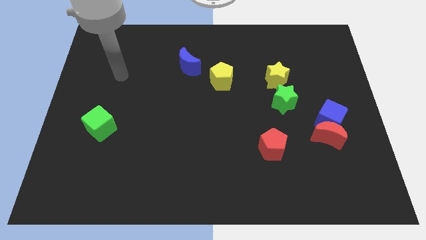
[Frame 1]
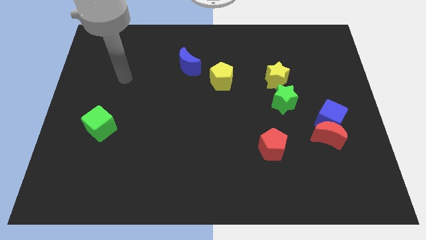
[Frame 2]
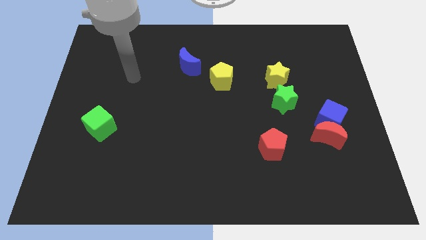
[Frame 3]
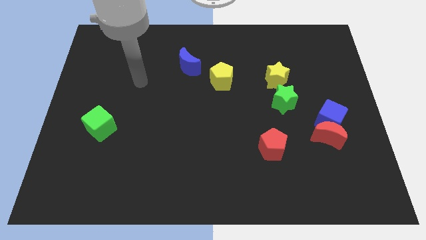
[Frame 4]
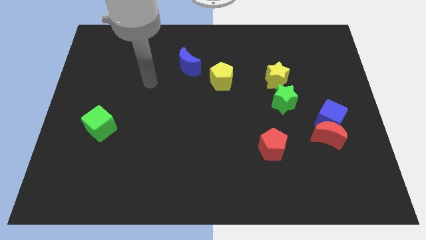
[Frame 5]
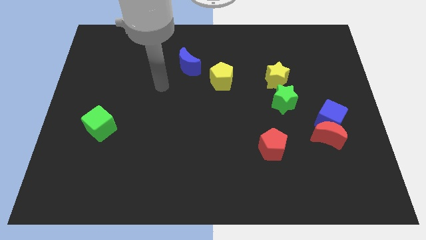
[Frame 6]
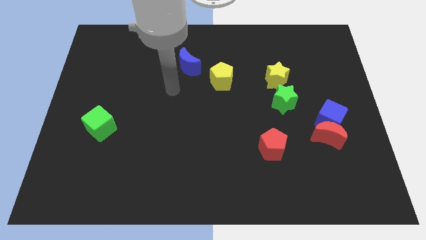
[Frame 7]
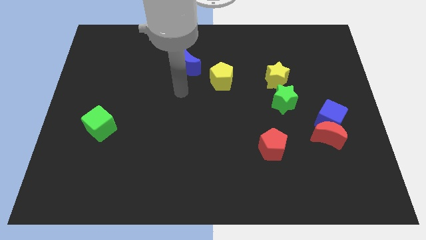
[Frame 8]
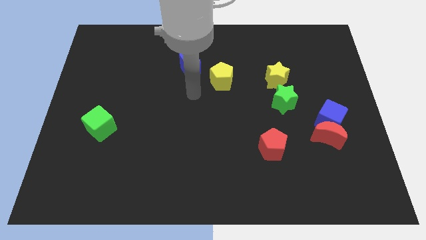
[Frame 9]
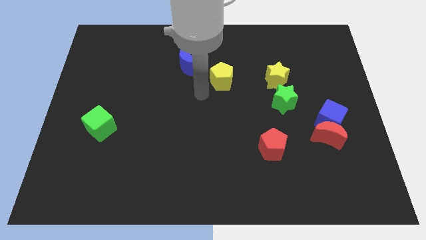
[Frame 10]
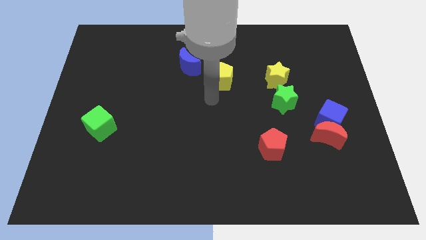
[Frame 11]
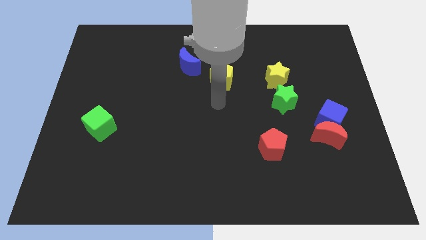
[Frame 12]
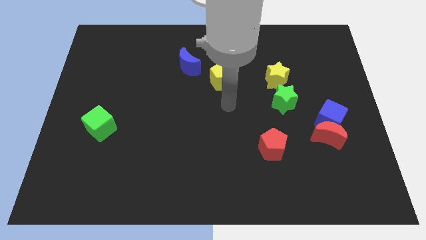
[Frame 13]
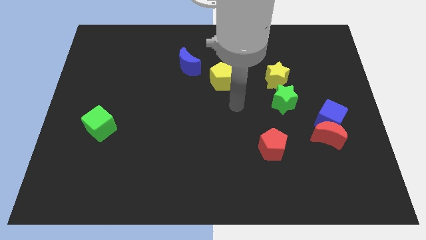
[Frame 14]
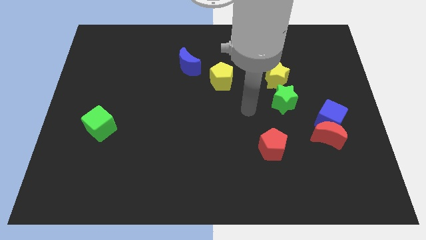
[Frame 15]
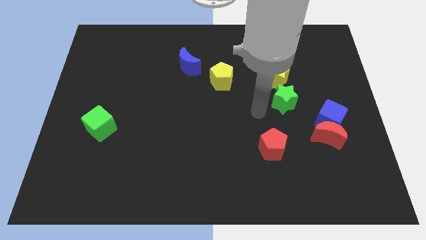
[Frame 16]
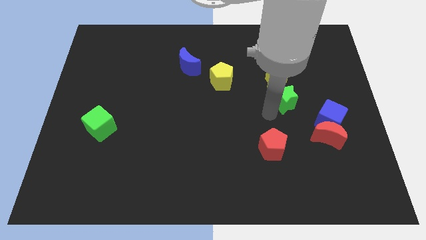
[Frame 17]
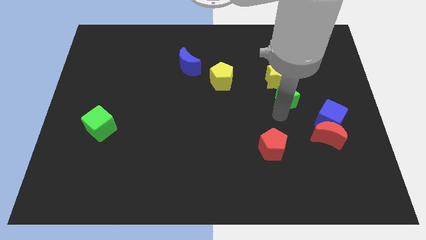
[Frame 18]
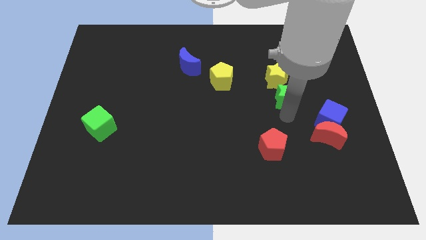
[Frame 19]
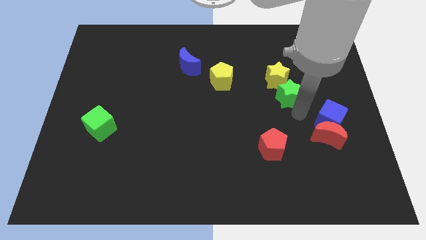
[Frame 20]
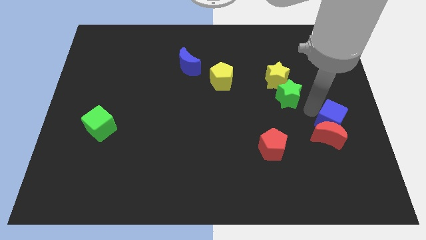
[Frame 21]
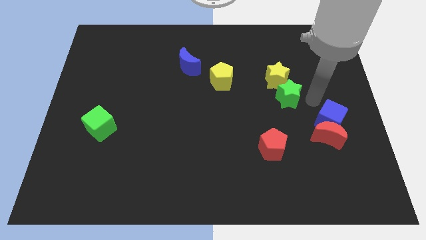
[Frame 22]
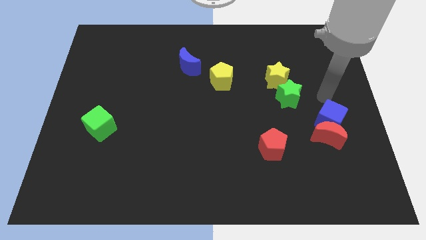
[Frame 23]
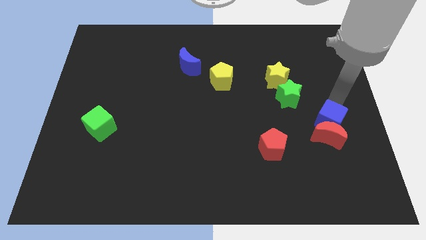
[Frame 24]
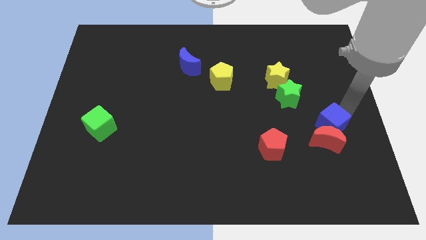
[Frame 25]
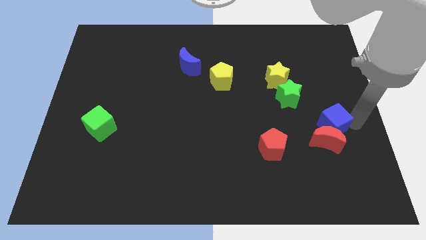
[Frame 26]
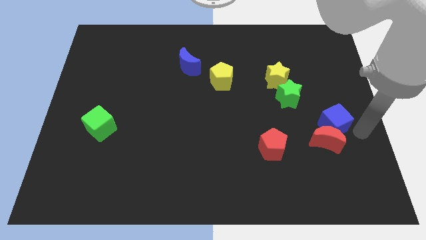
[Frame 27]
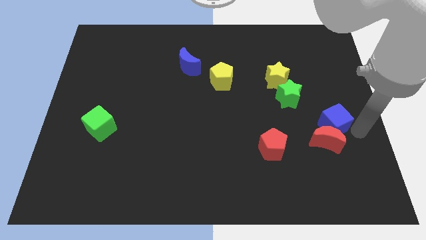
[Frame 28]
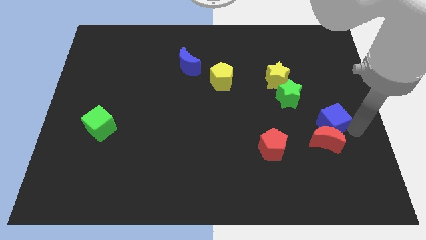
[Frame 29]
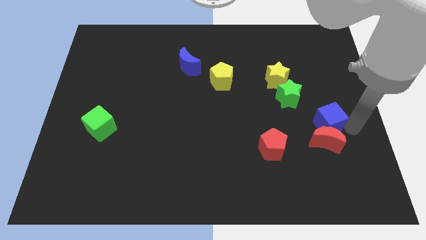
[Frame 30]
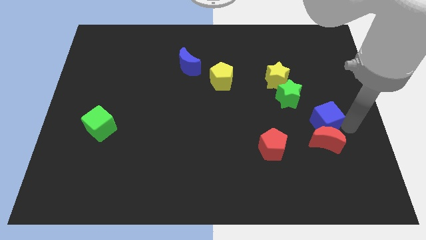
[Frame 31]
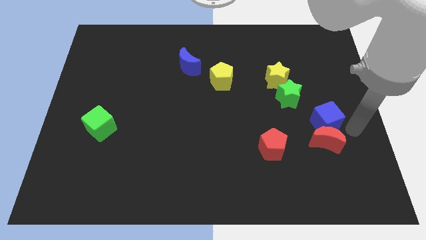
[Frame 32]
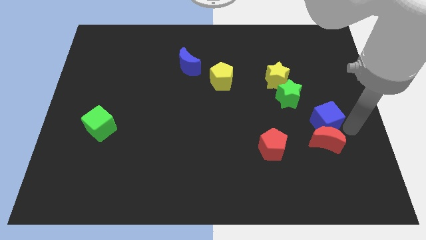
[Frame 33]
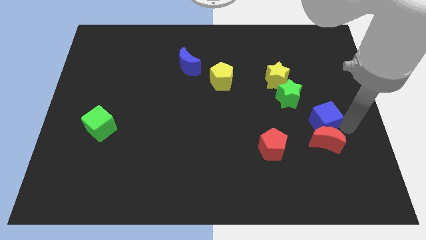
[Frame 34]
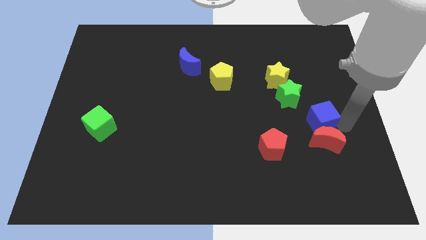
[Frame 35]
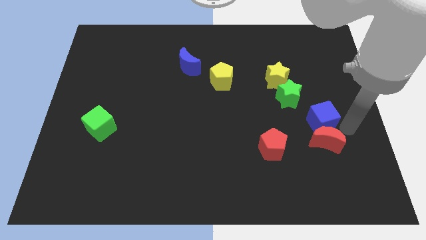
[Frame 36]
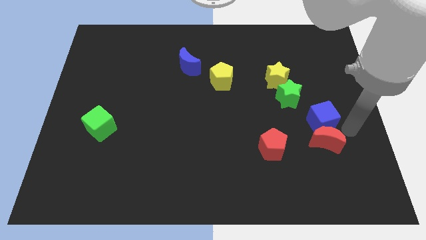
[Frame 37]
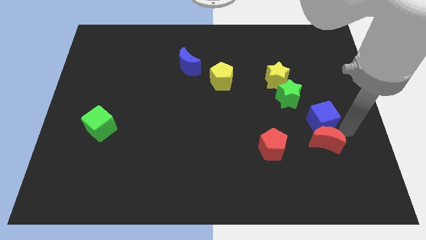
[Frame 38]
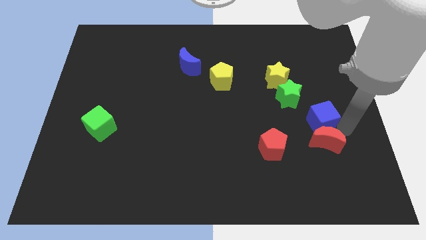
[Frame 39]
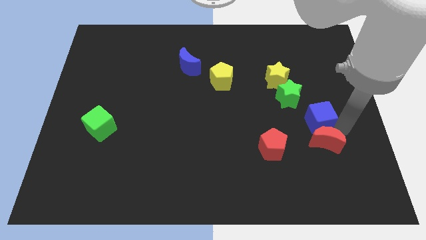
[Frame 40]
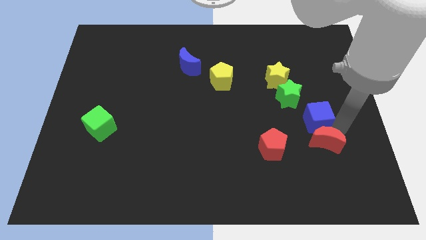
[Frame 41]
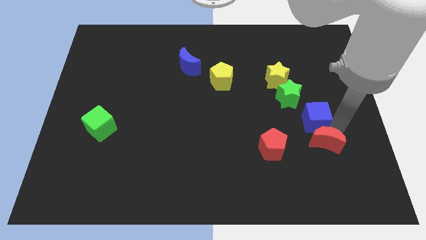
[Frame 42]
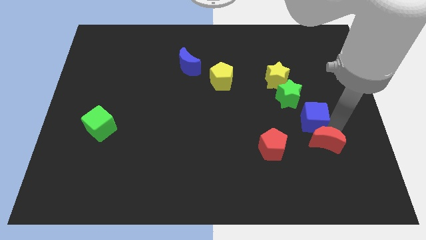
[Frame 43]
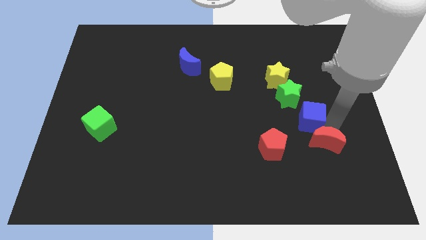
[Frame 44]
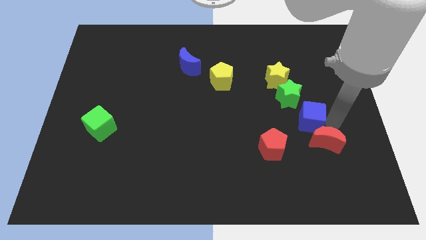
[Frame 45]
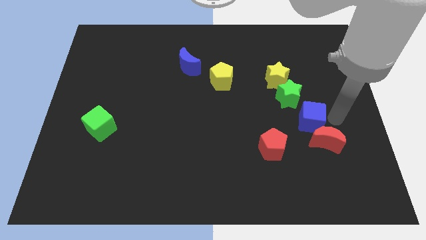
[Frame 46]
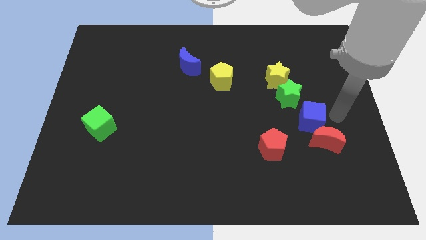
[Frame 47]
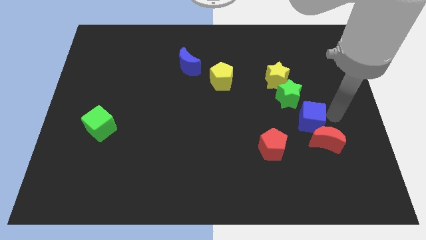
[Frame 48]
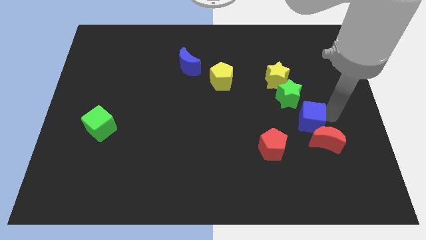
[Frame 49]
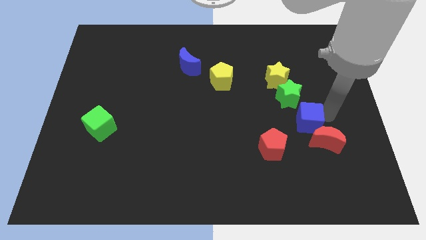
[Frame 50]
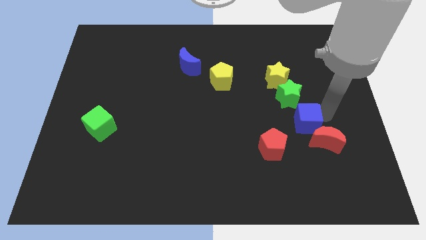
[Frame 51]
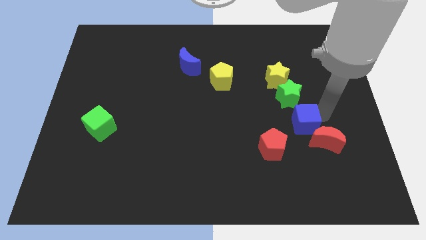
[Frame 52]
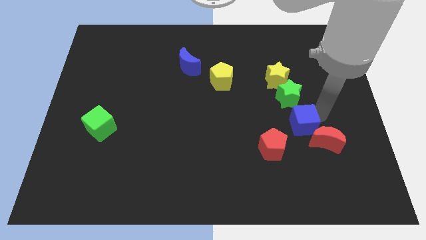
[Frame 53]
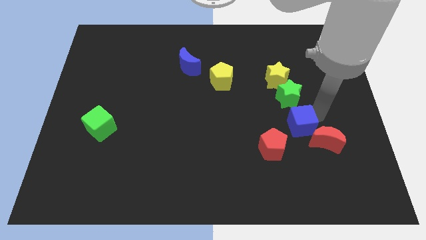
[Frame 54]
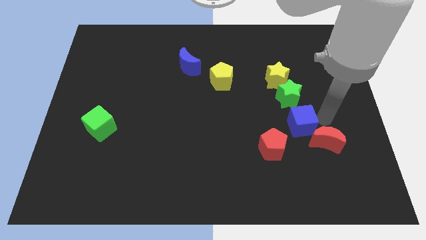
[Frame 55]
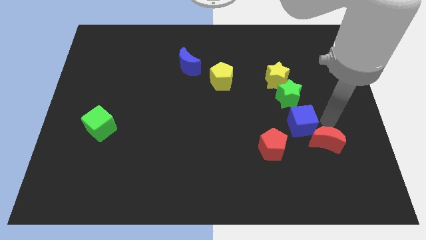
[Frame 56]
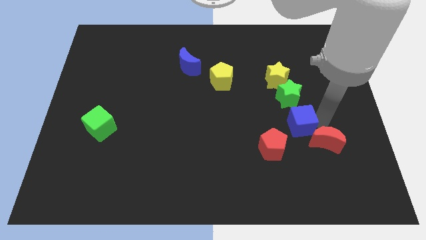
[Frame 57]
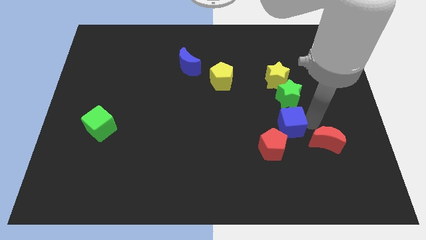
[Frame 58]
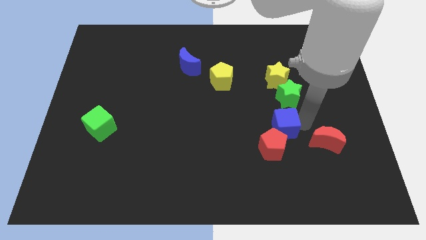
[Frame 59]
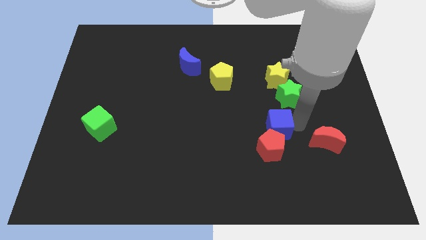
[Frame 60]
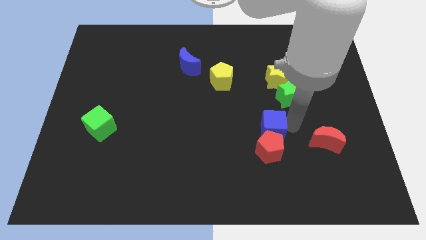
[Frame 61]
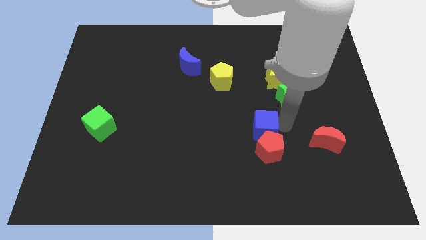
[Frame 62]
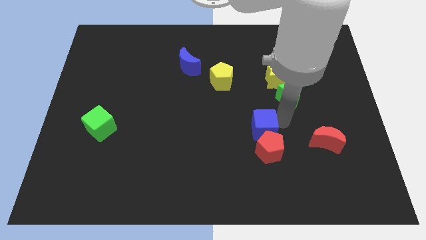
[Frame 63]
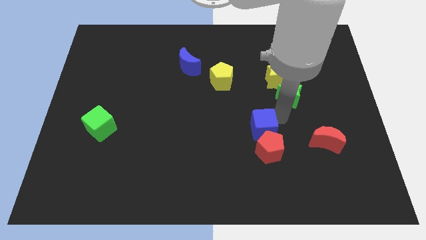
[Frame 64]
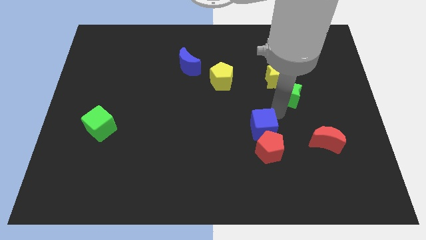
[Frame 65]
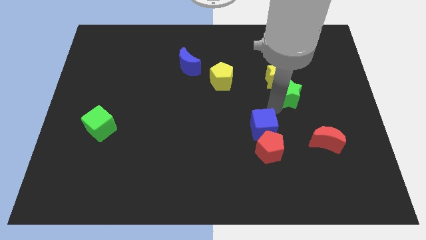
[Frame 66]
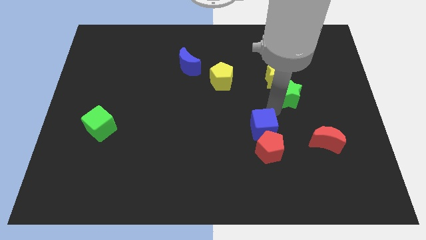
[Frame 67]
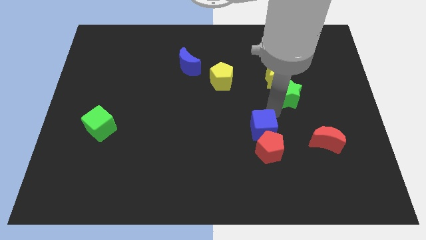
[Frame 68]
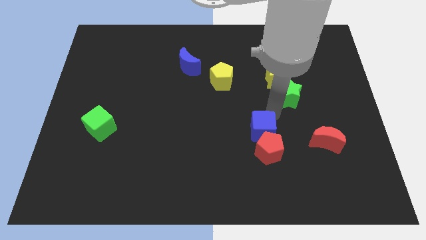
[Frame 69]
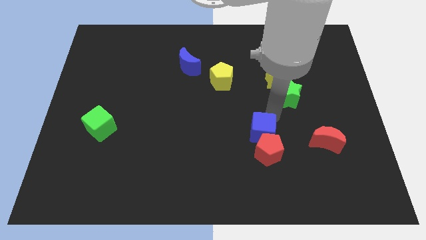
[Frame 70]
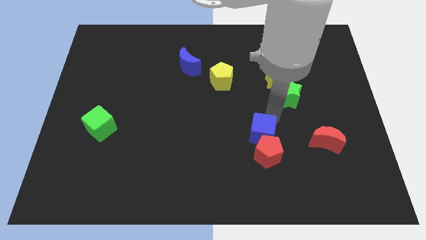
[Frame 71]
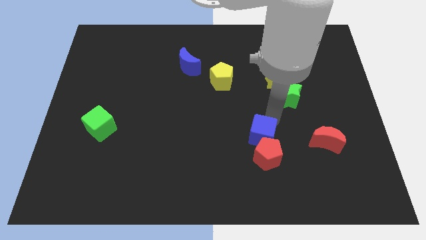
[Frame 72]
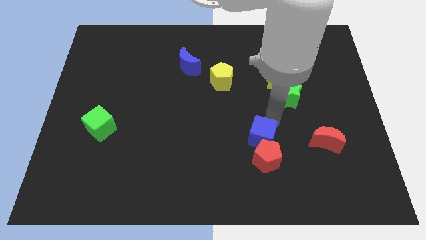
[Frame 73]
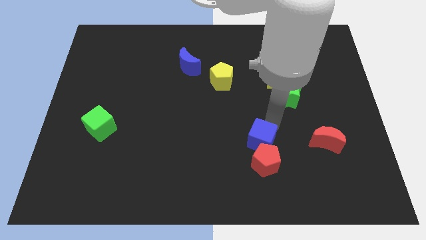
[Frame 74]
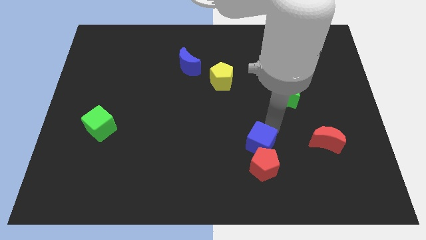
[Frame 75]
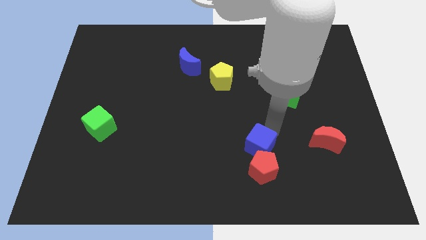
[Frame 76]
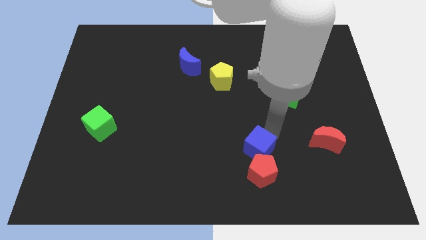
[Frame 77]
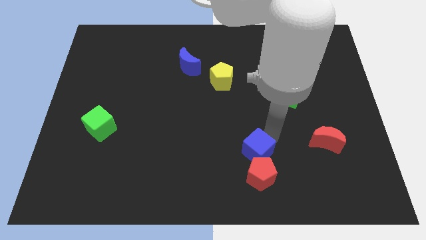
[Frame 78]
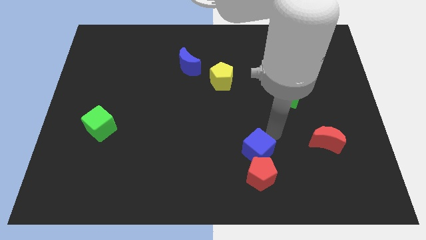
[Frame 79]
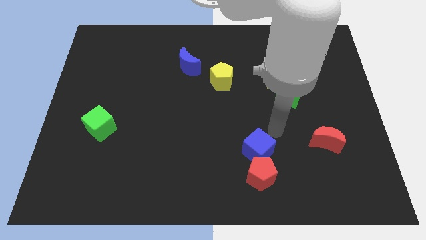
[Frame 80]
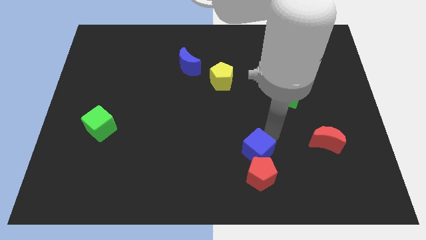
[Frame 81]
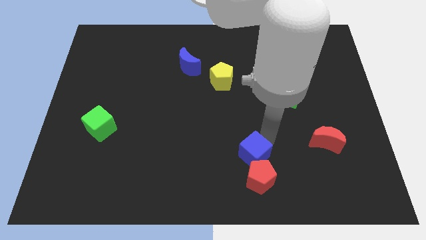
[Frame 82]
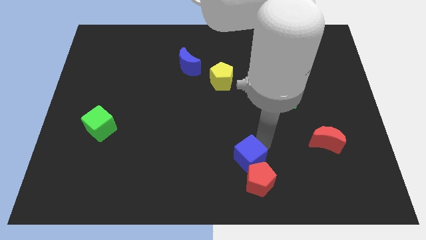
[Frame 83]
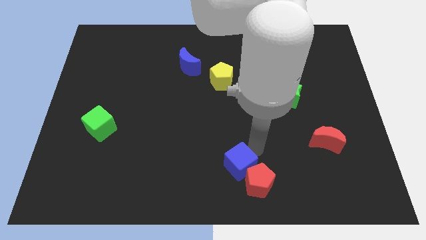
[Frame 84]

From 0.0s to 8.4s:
slide the blue cube to the bottom
